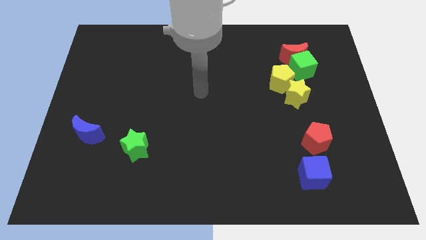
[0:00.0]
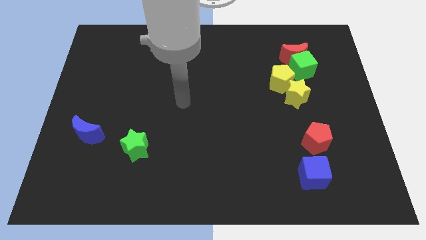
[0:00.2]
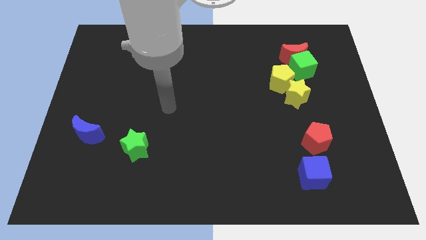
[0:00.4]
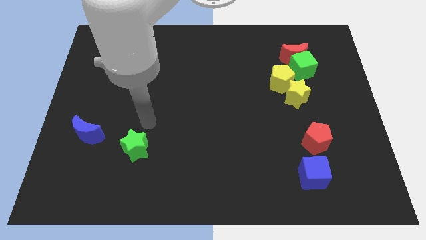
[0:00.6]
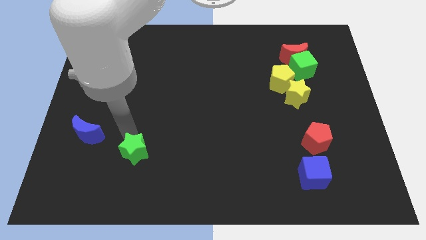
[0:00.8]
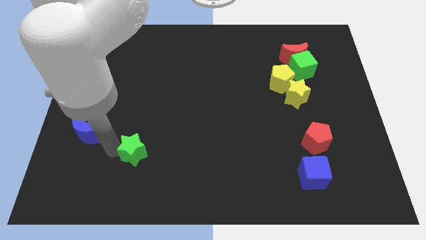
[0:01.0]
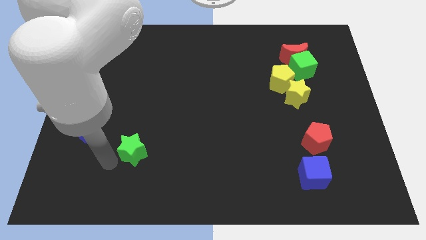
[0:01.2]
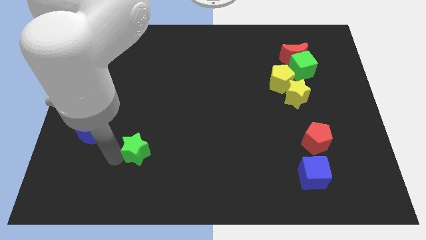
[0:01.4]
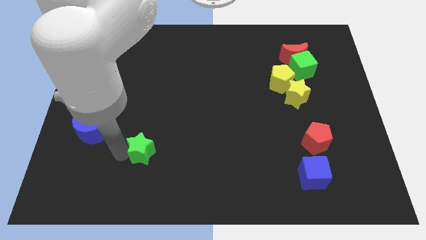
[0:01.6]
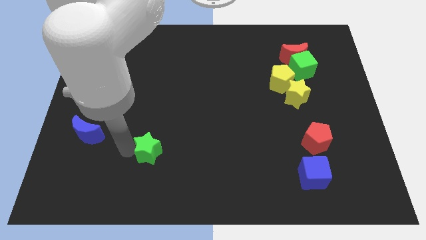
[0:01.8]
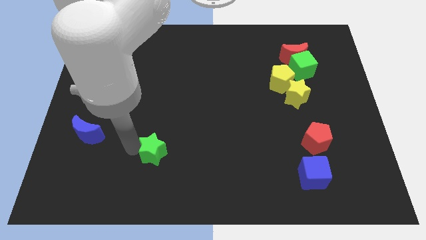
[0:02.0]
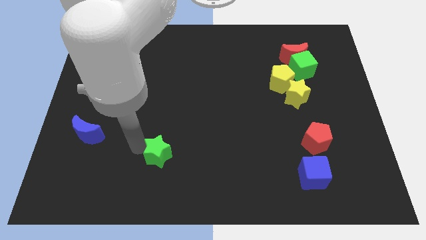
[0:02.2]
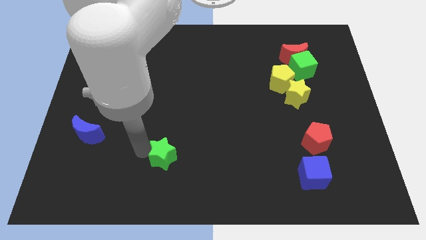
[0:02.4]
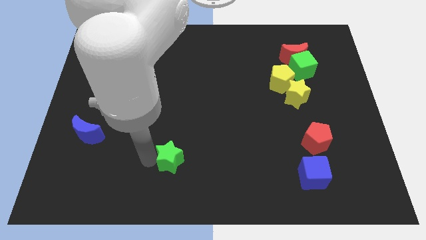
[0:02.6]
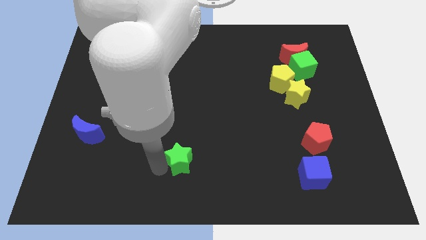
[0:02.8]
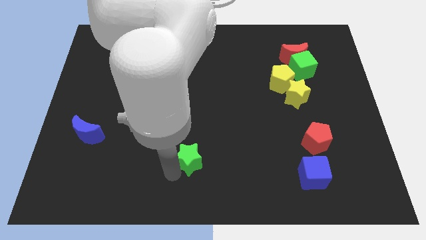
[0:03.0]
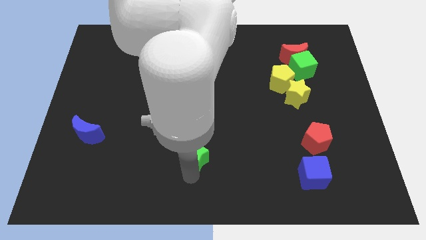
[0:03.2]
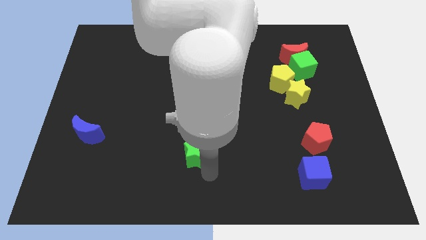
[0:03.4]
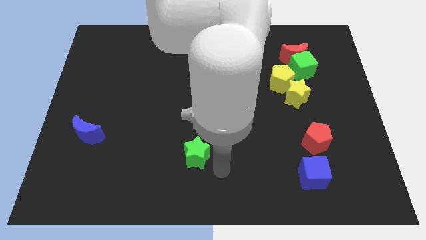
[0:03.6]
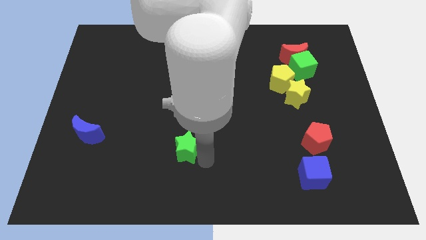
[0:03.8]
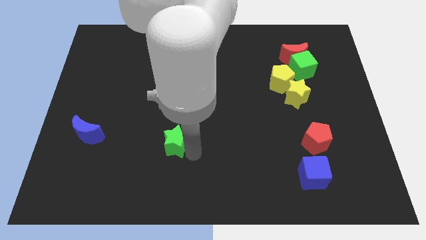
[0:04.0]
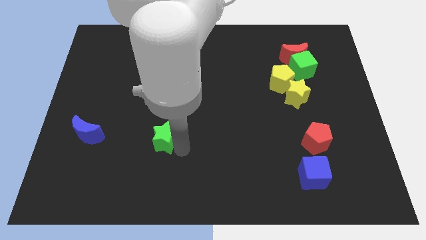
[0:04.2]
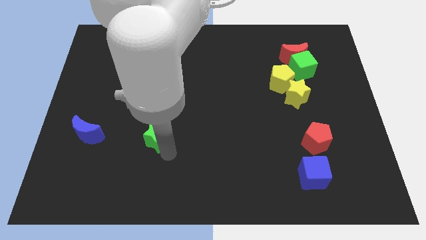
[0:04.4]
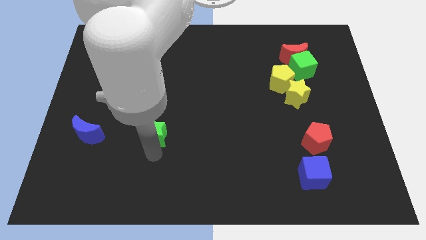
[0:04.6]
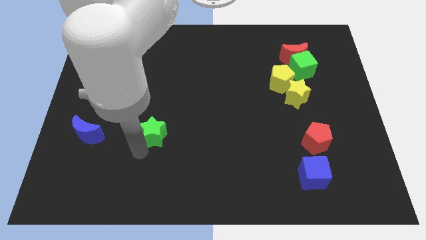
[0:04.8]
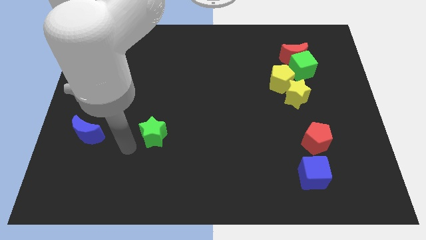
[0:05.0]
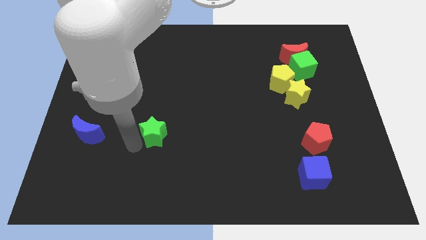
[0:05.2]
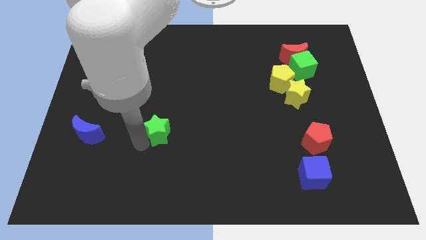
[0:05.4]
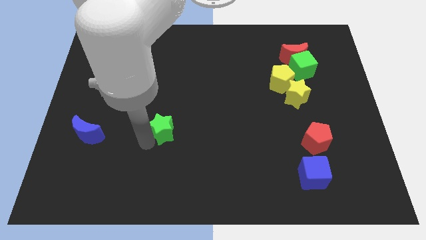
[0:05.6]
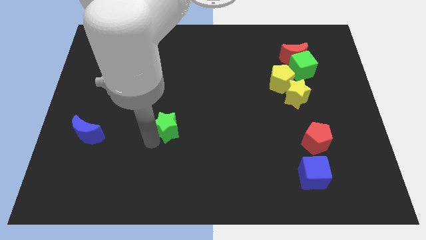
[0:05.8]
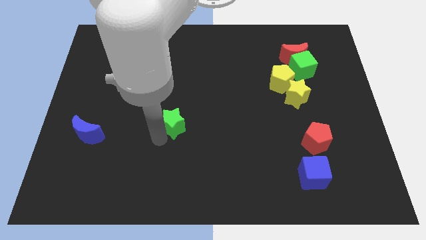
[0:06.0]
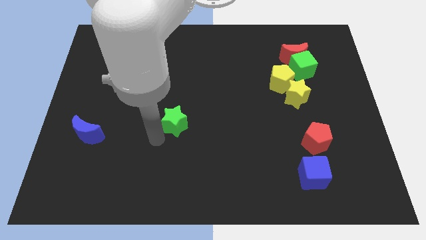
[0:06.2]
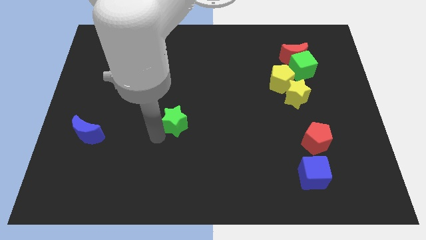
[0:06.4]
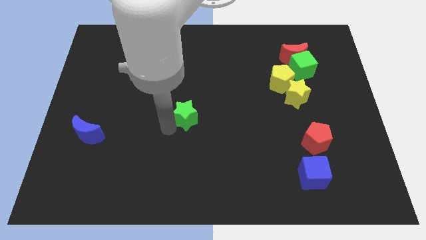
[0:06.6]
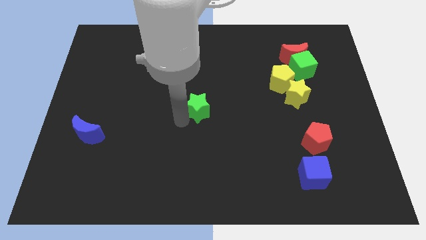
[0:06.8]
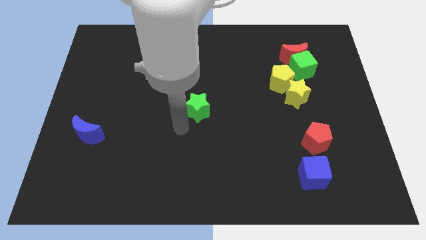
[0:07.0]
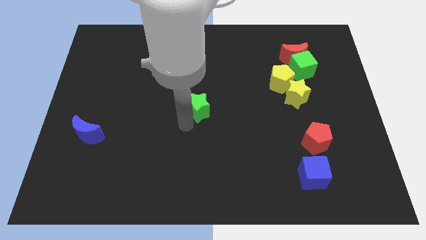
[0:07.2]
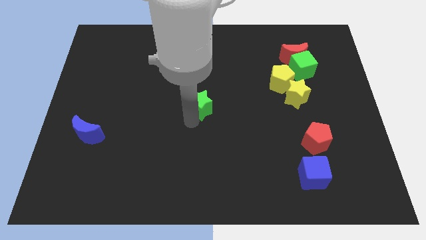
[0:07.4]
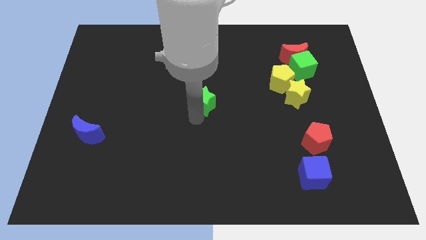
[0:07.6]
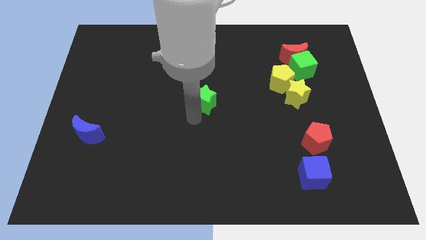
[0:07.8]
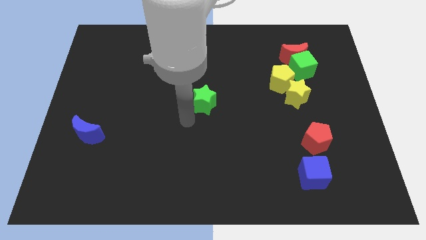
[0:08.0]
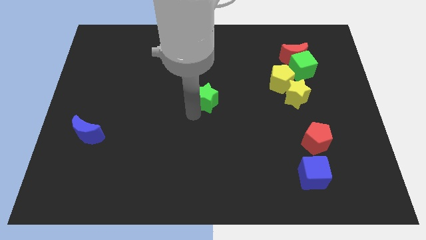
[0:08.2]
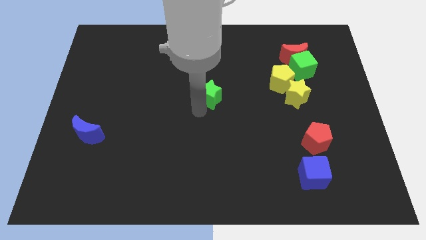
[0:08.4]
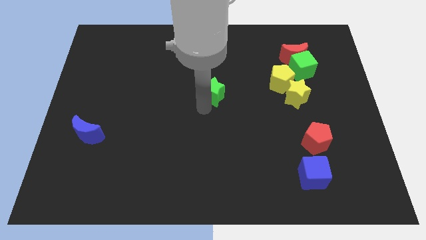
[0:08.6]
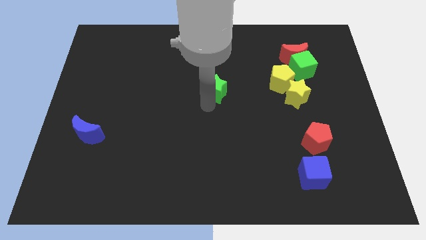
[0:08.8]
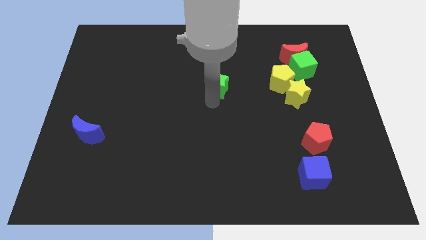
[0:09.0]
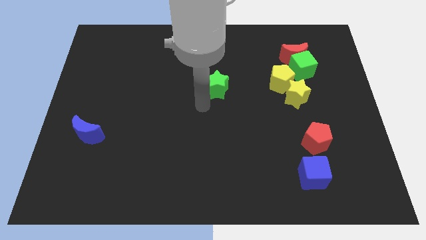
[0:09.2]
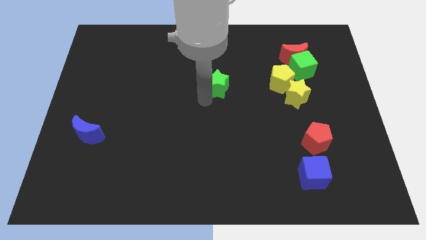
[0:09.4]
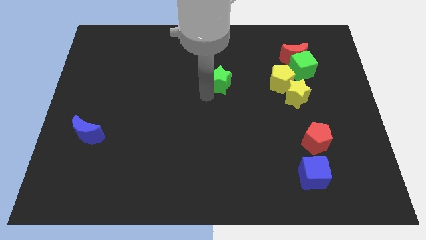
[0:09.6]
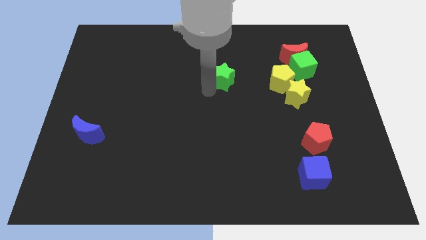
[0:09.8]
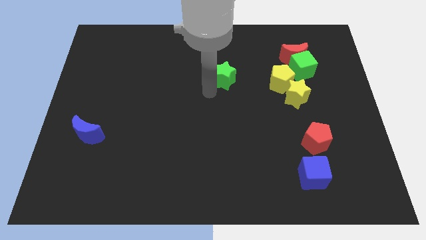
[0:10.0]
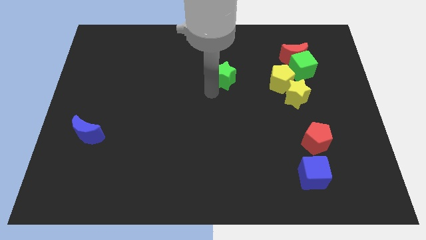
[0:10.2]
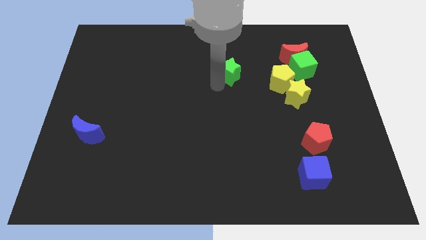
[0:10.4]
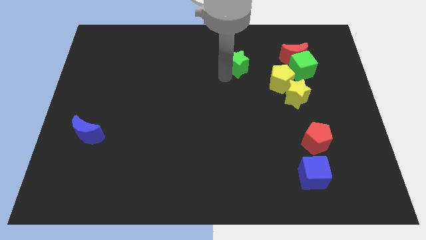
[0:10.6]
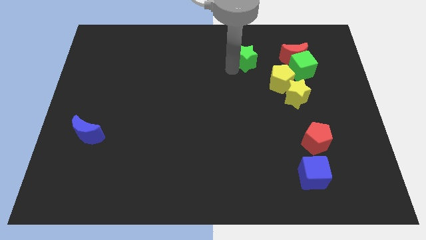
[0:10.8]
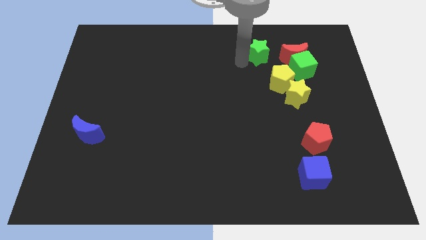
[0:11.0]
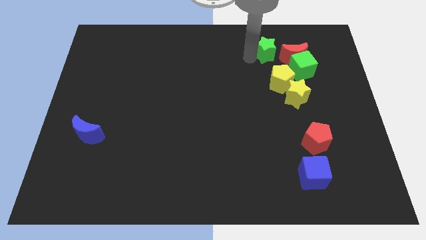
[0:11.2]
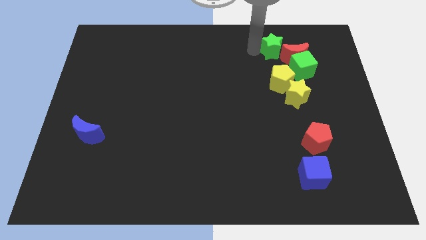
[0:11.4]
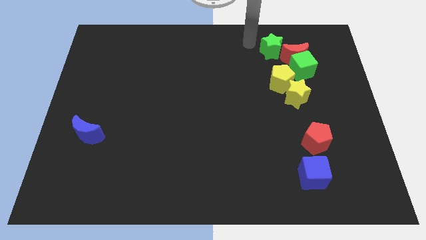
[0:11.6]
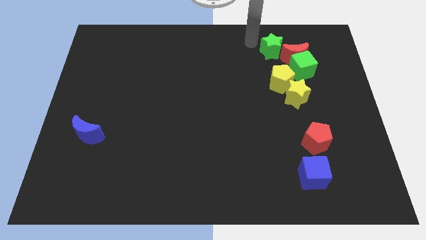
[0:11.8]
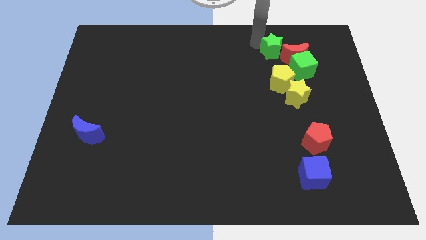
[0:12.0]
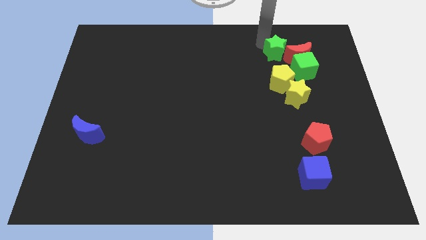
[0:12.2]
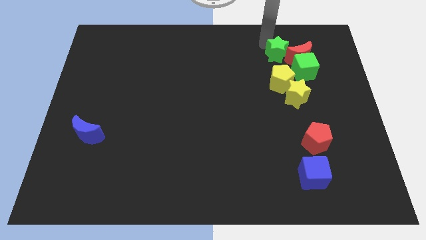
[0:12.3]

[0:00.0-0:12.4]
put the green star towards the red moon

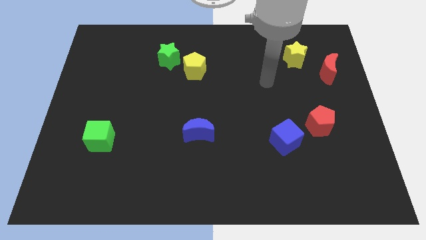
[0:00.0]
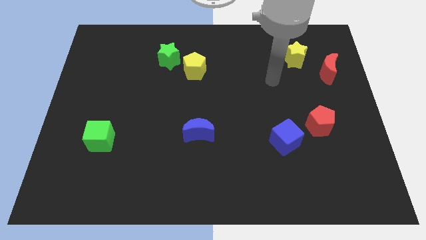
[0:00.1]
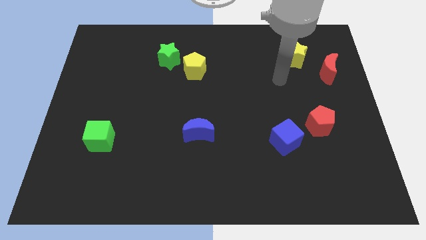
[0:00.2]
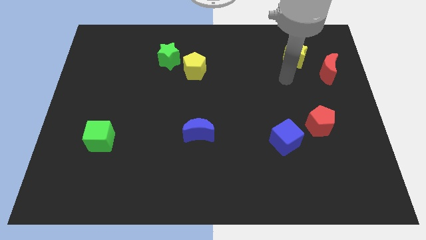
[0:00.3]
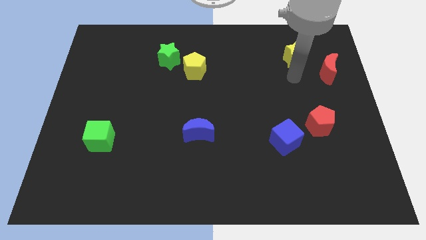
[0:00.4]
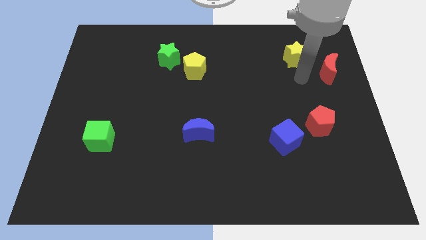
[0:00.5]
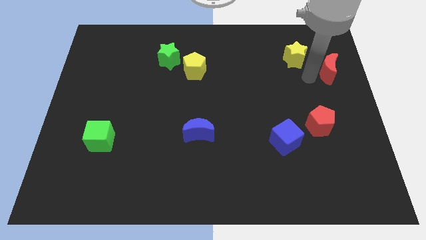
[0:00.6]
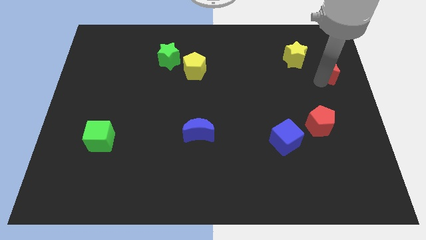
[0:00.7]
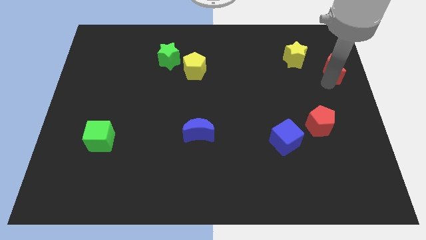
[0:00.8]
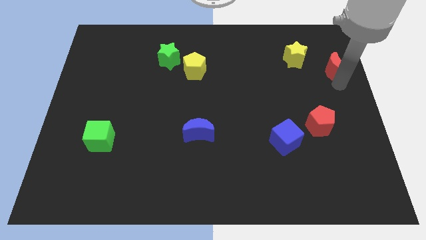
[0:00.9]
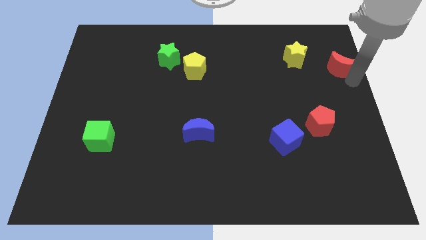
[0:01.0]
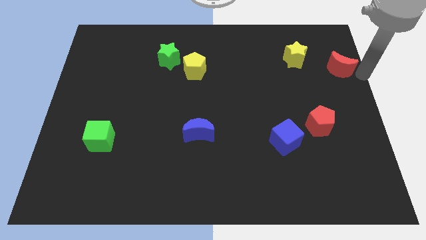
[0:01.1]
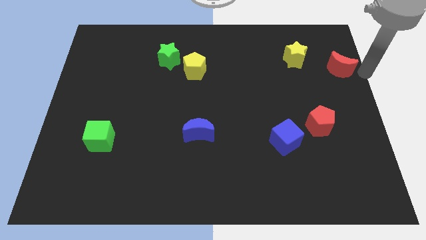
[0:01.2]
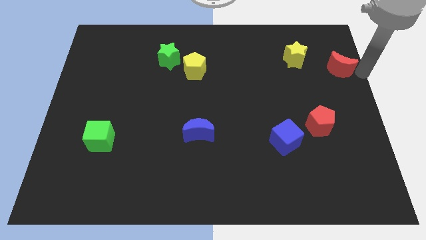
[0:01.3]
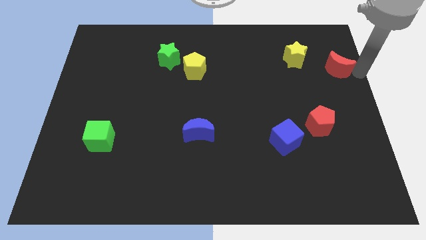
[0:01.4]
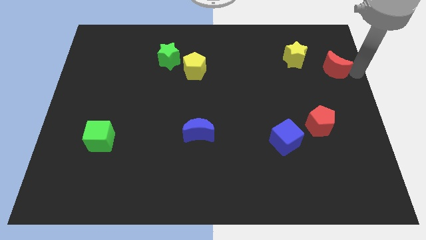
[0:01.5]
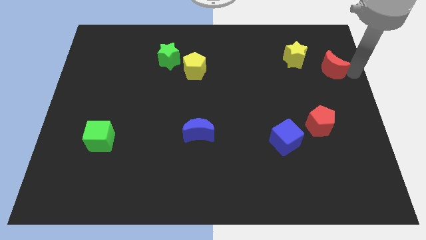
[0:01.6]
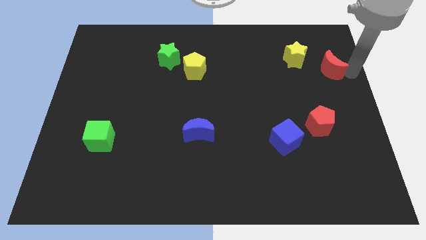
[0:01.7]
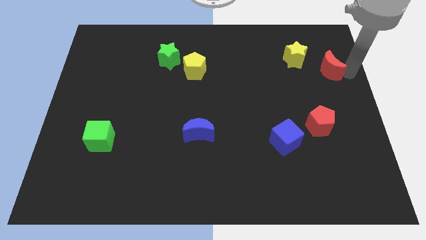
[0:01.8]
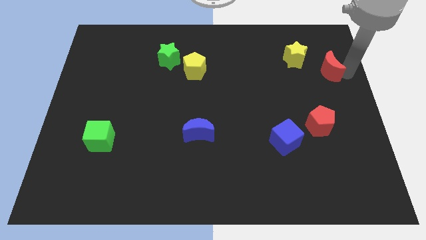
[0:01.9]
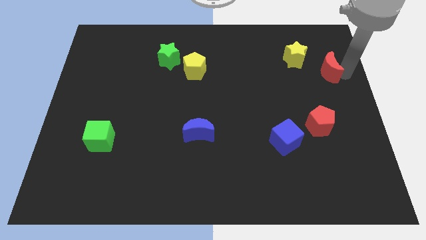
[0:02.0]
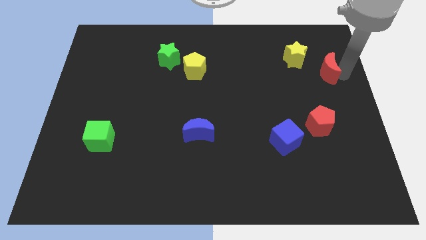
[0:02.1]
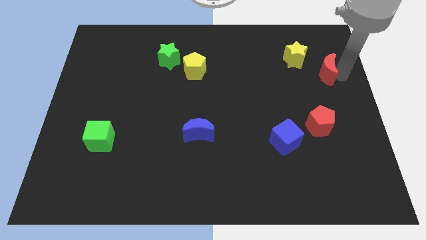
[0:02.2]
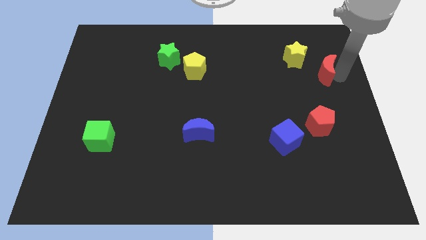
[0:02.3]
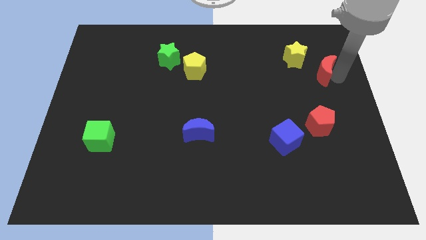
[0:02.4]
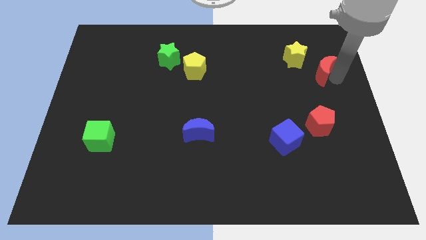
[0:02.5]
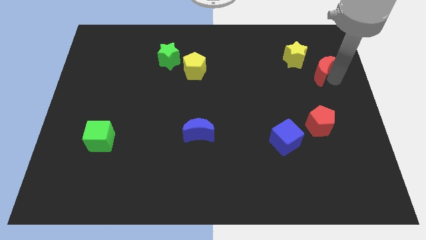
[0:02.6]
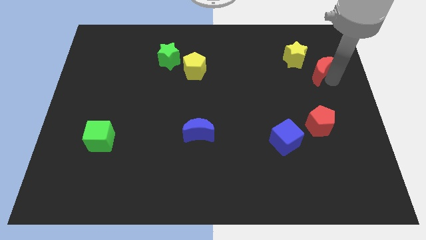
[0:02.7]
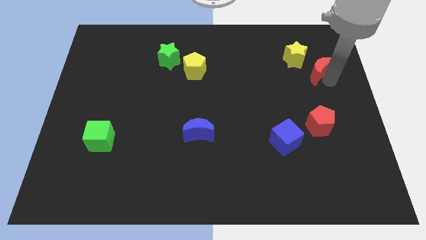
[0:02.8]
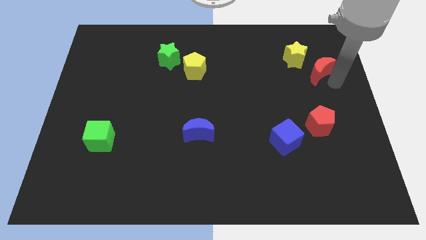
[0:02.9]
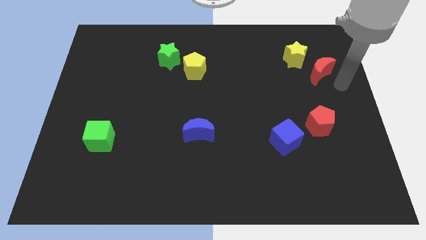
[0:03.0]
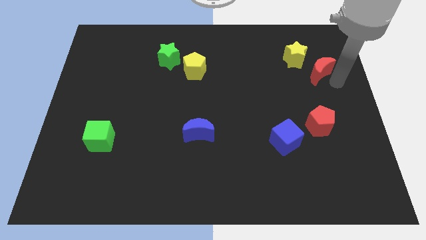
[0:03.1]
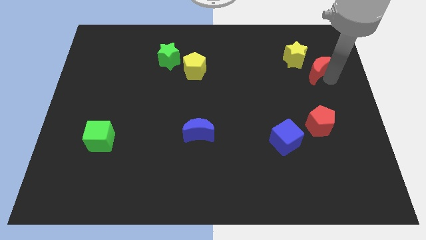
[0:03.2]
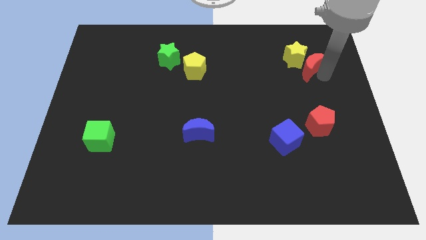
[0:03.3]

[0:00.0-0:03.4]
put the red moon towards the yellow star
